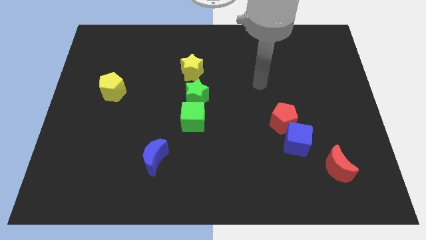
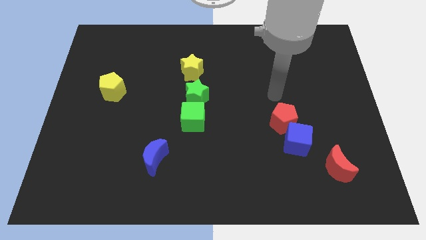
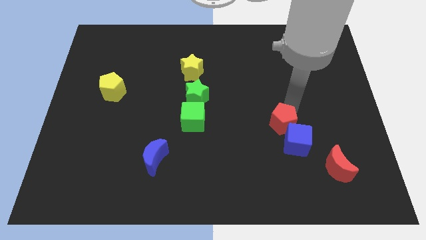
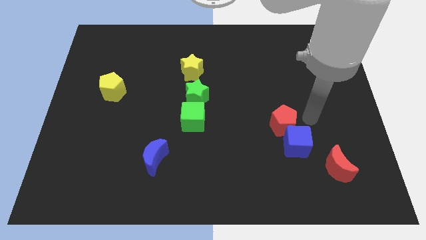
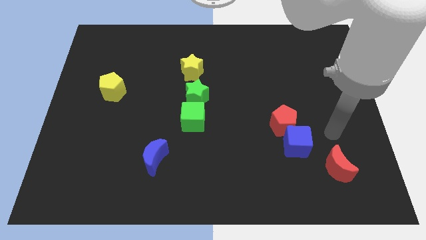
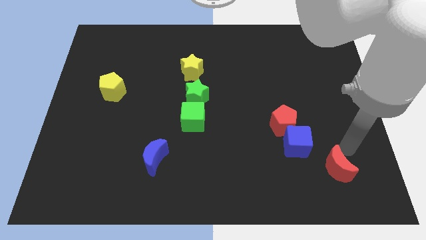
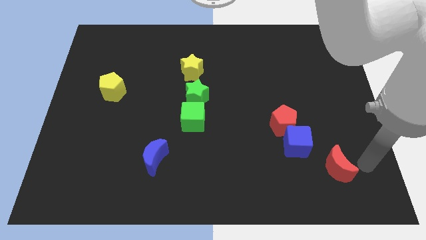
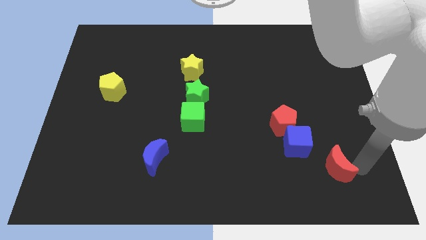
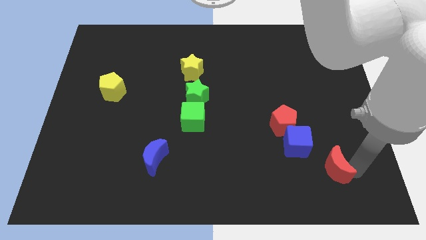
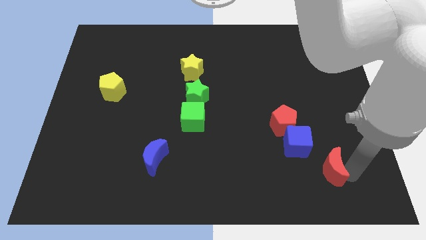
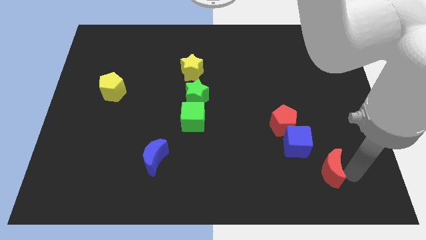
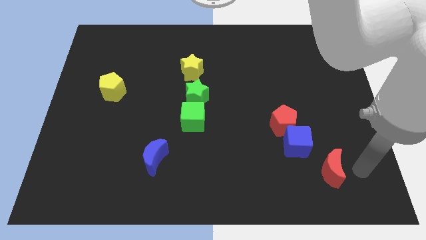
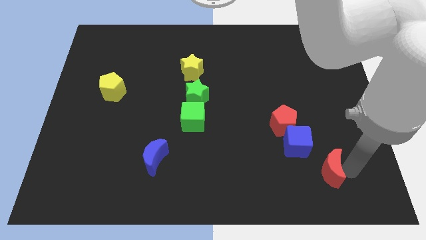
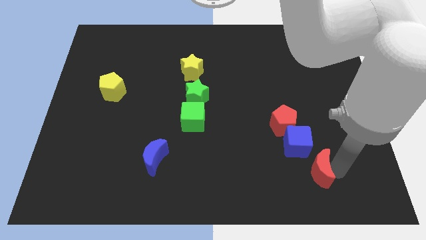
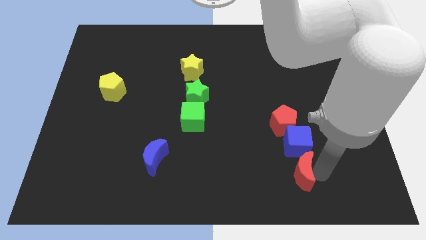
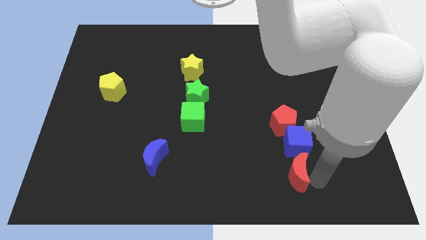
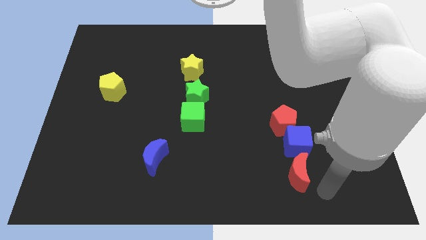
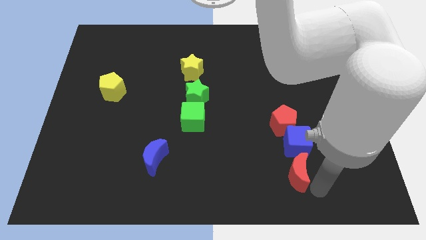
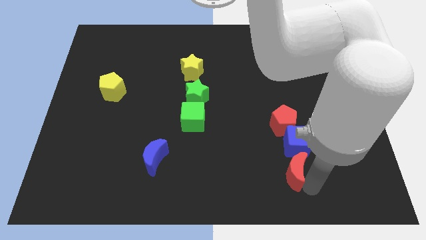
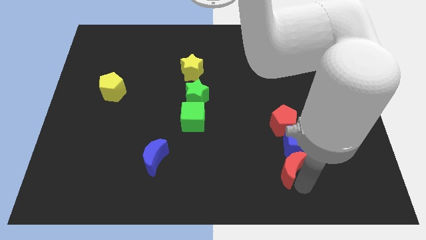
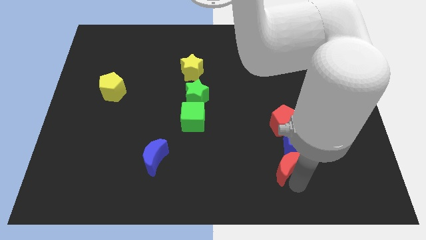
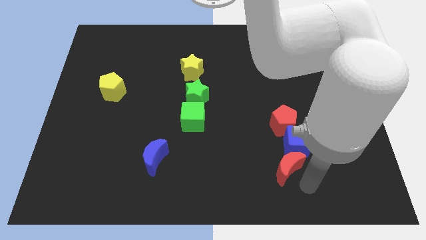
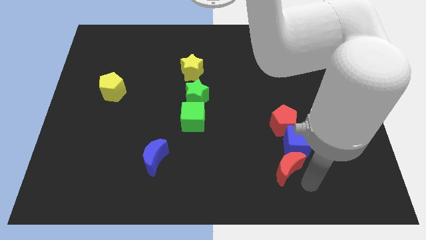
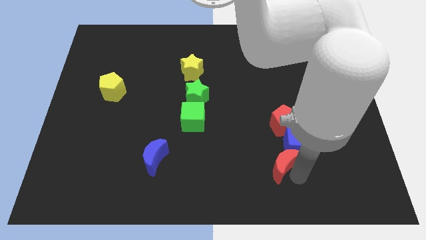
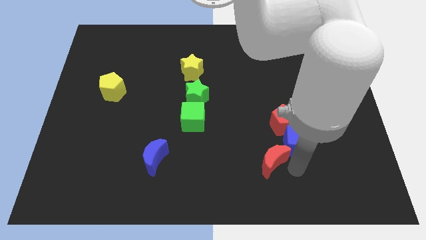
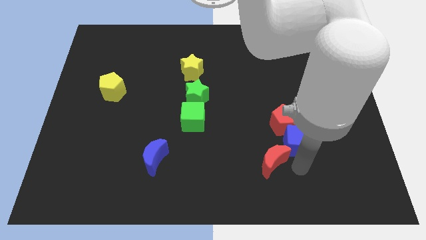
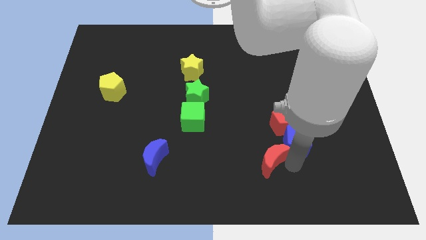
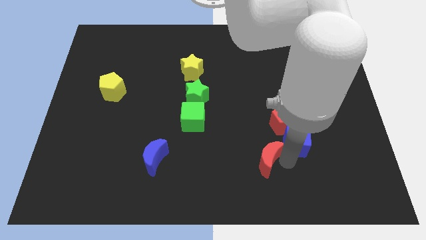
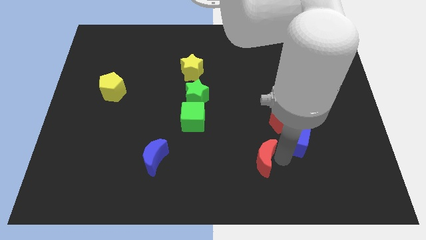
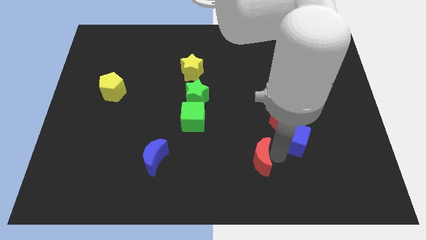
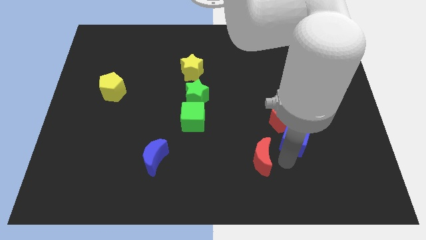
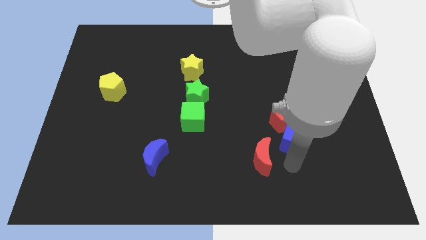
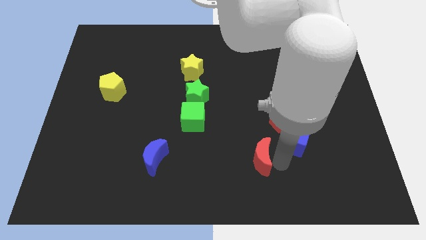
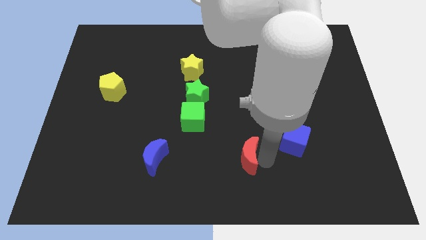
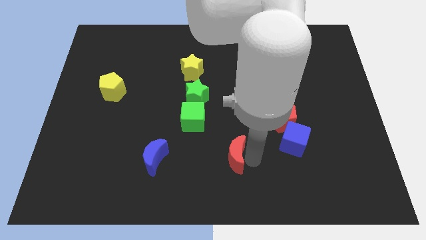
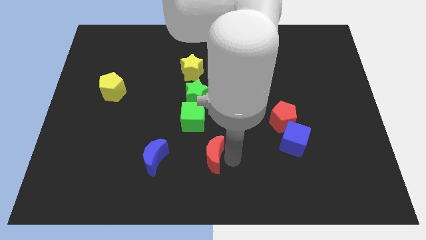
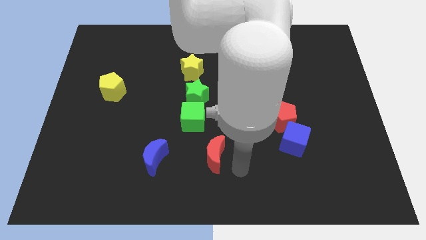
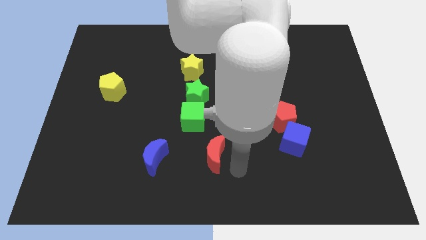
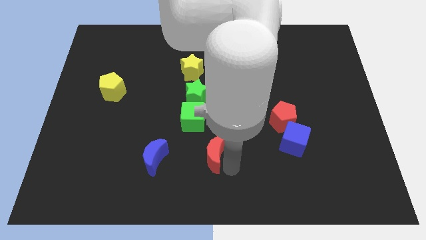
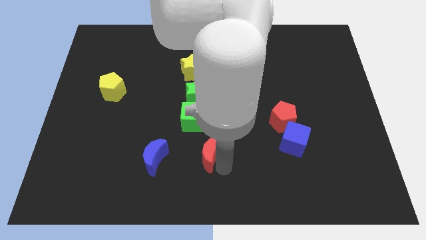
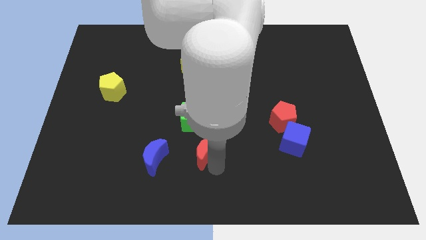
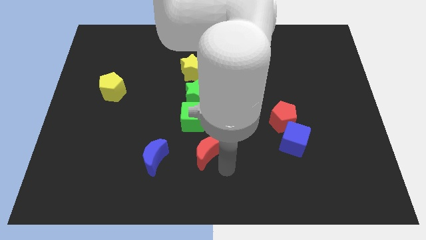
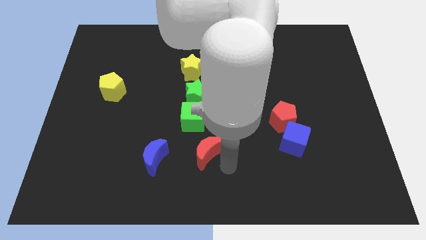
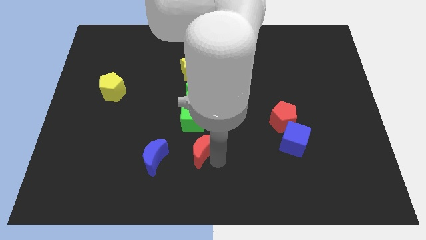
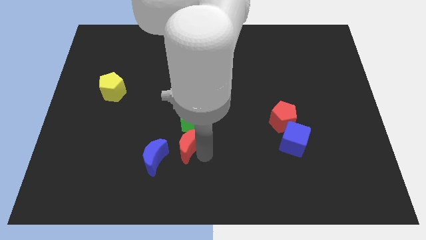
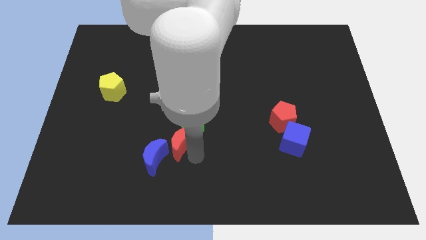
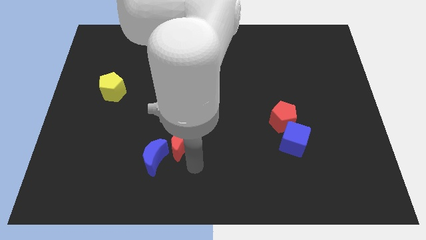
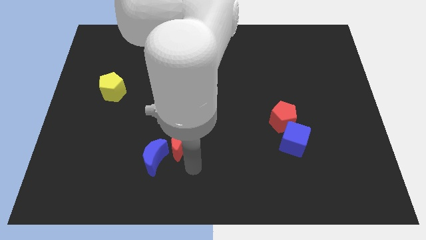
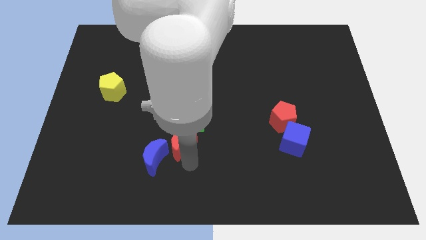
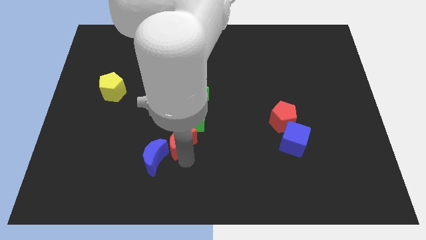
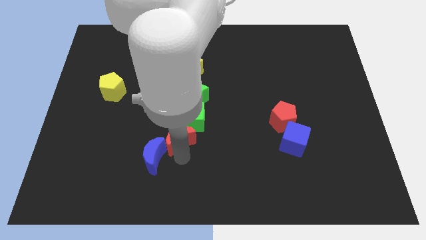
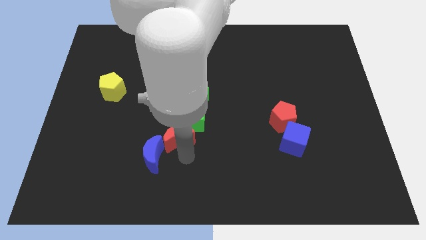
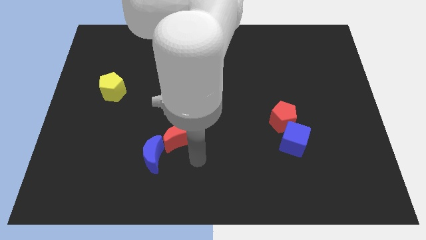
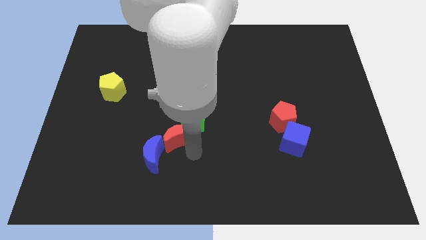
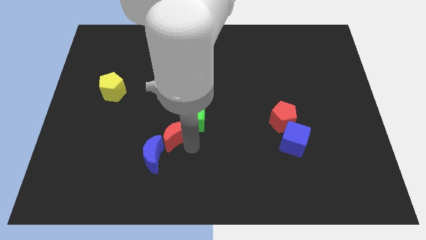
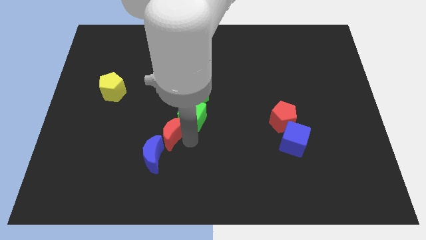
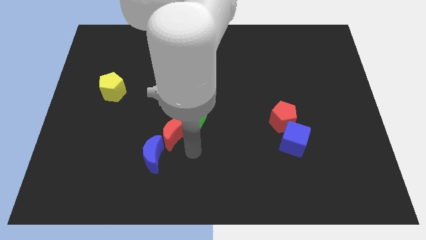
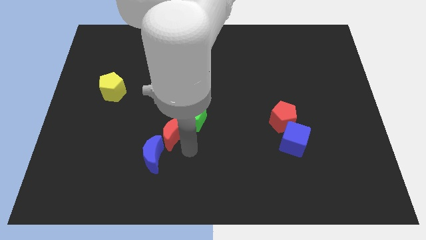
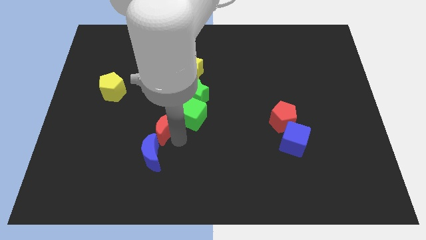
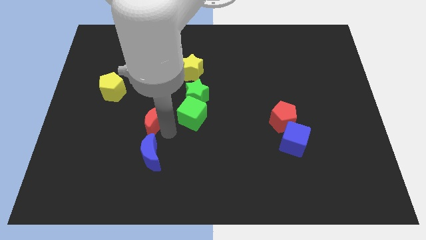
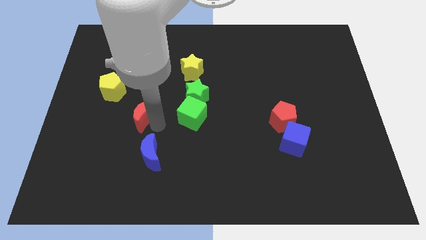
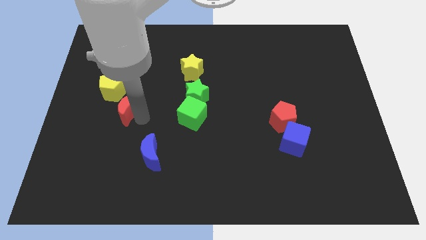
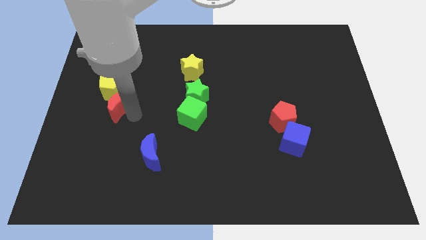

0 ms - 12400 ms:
push the red moon close to the yellow pentagon

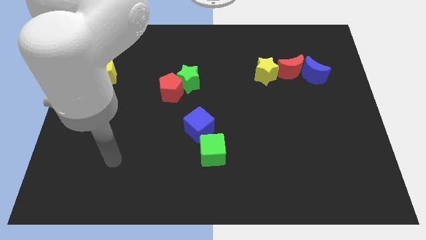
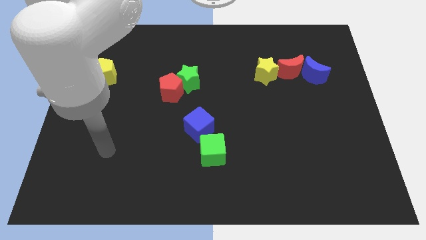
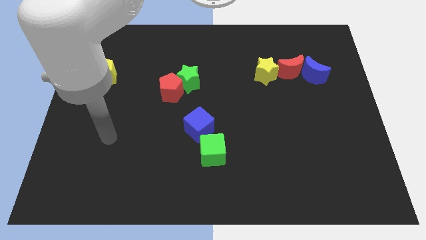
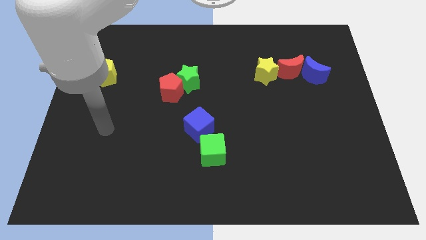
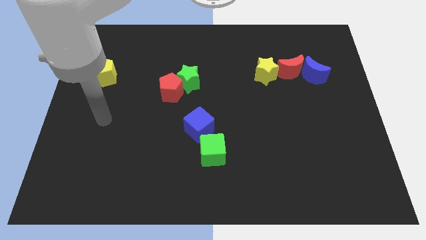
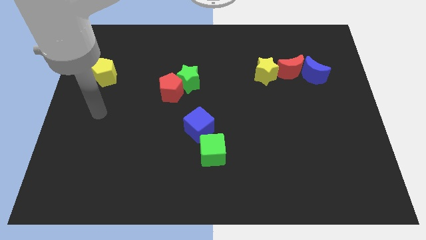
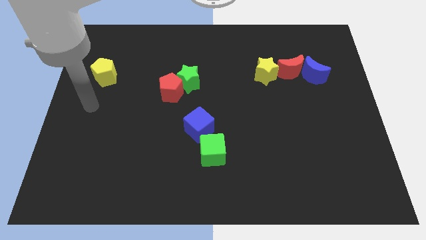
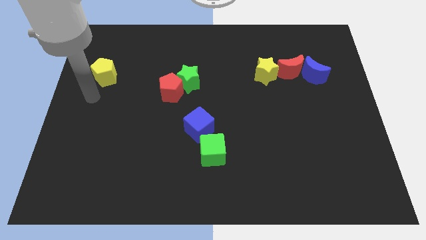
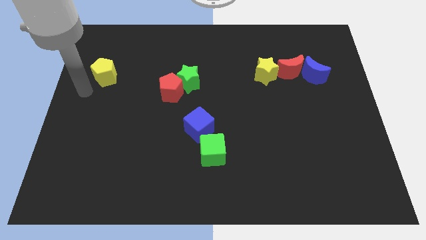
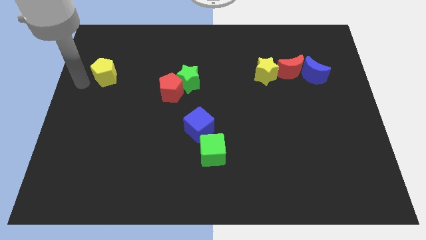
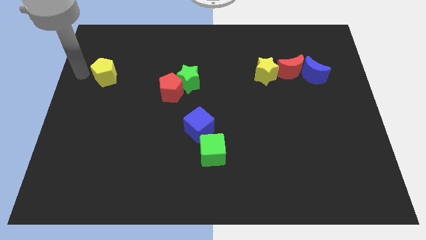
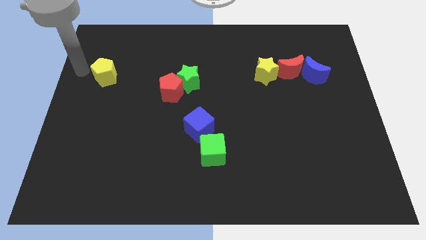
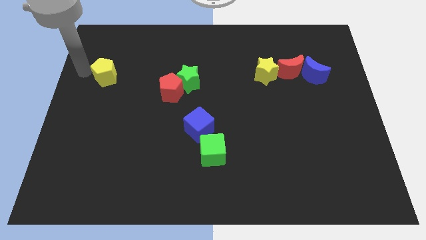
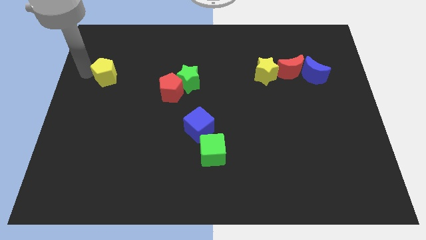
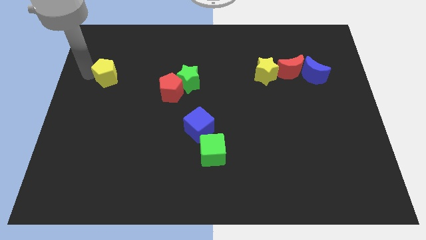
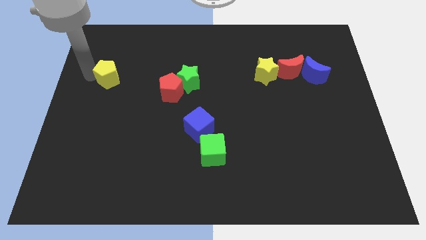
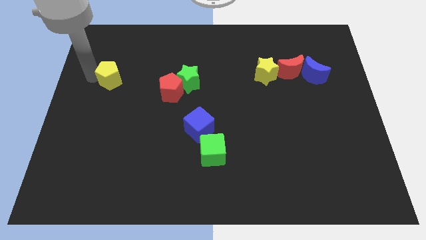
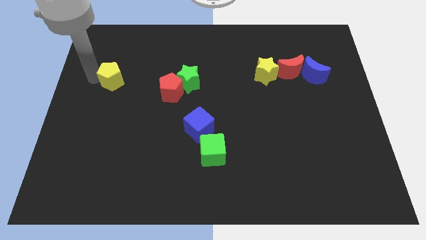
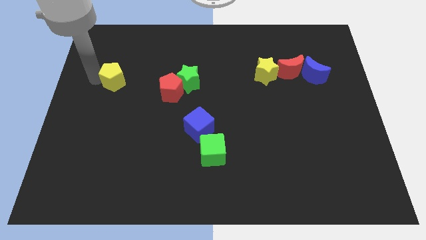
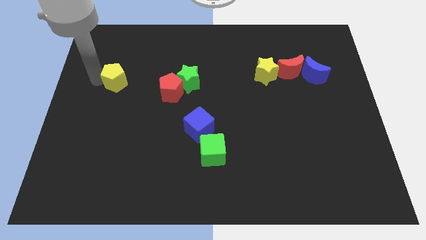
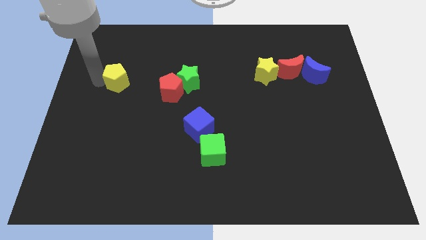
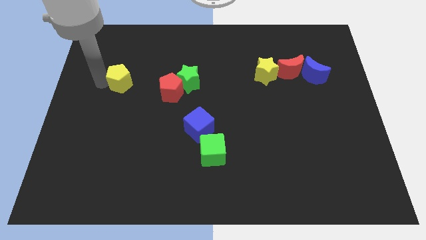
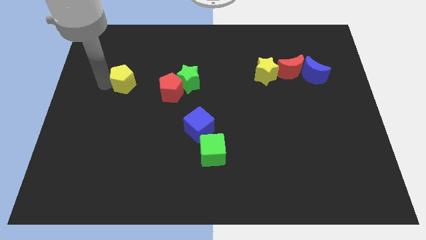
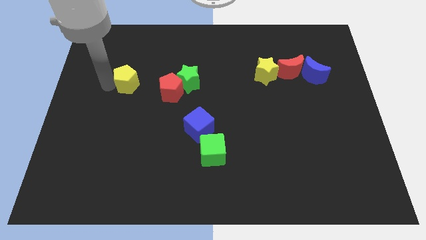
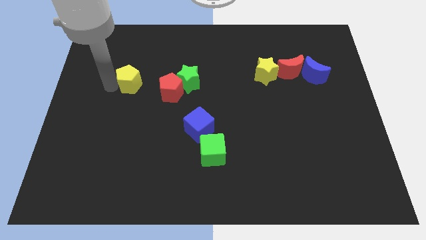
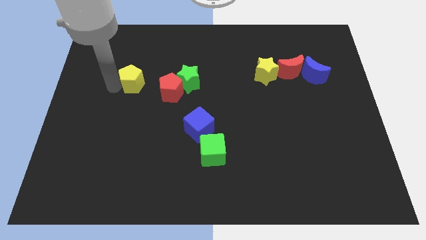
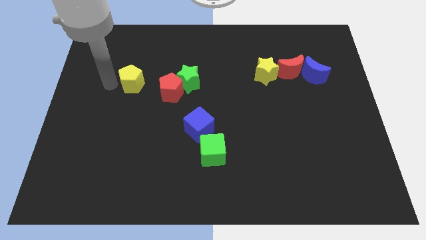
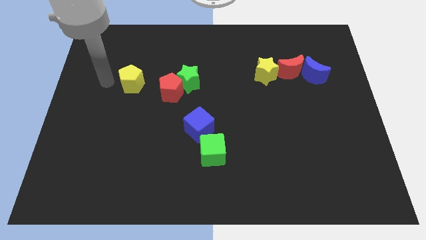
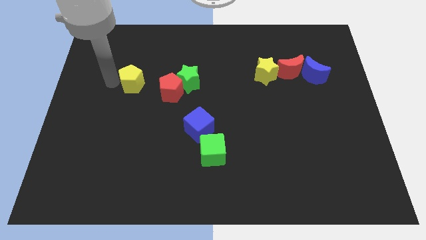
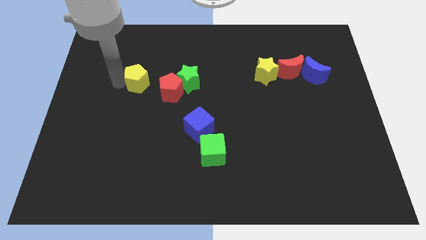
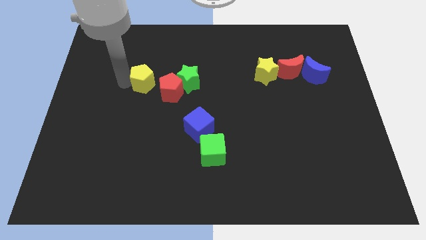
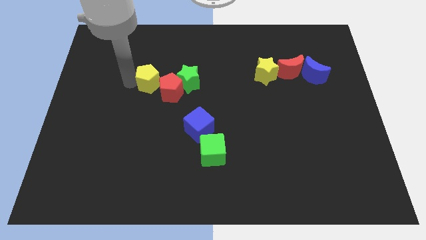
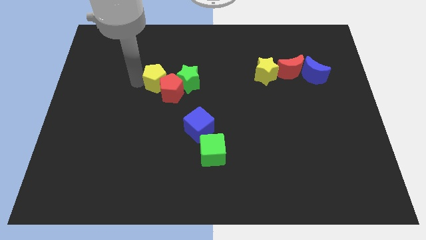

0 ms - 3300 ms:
slide the yellow pentagon close to the red pentagon
